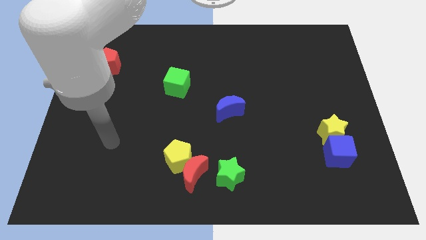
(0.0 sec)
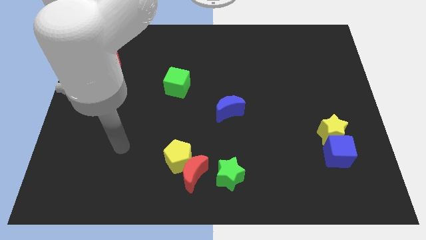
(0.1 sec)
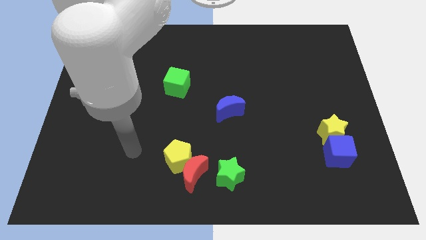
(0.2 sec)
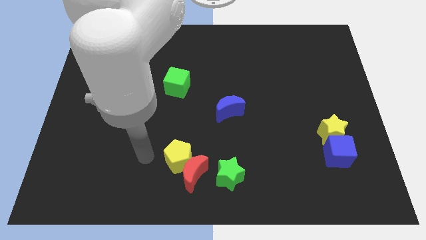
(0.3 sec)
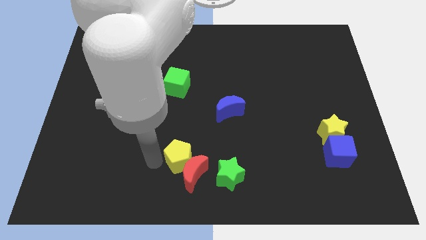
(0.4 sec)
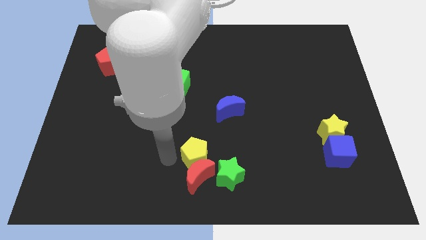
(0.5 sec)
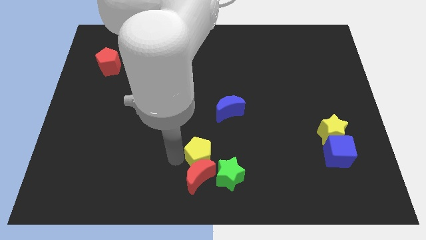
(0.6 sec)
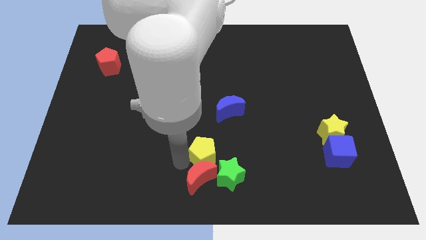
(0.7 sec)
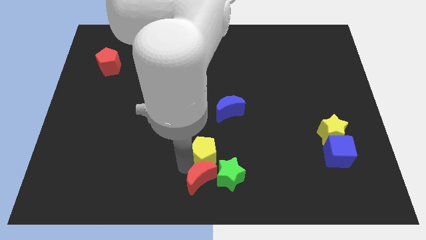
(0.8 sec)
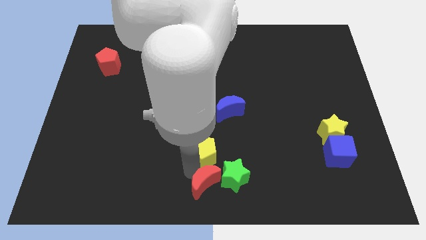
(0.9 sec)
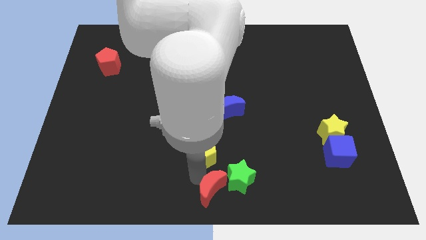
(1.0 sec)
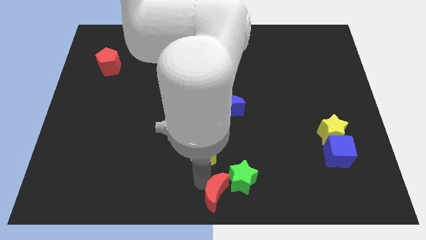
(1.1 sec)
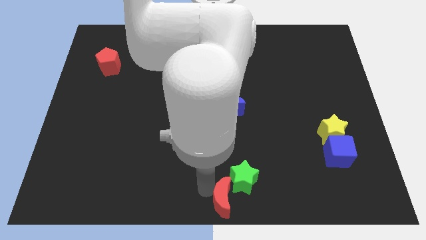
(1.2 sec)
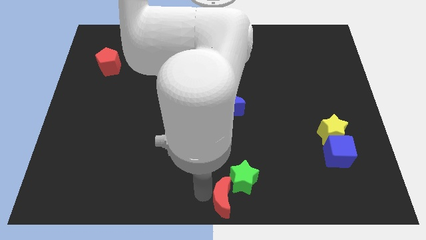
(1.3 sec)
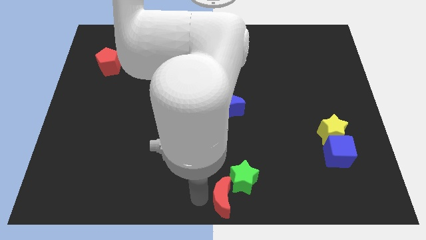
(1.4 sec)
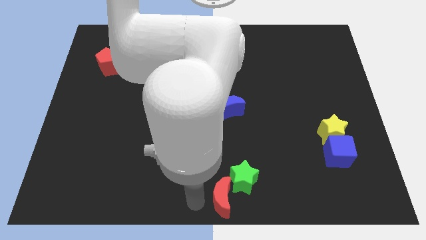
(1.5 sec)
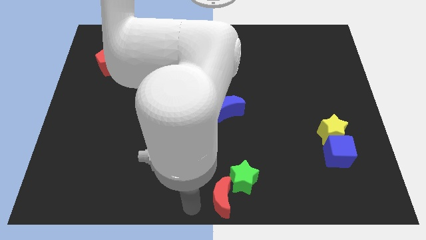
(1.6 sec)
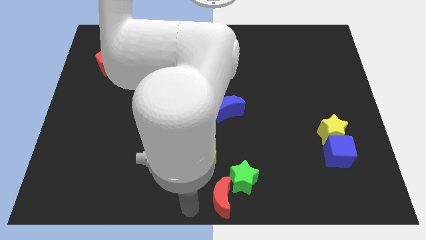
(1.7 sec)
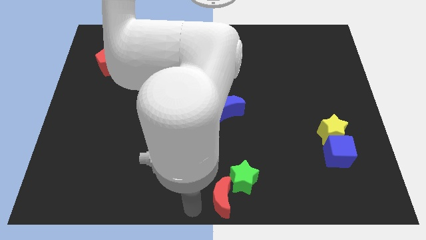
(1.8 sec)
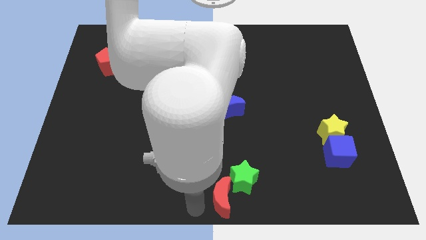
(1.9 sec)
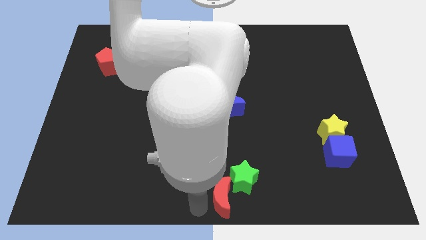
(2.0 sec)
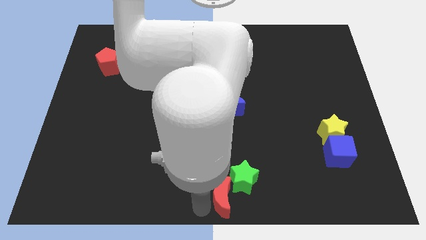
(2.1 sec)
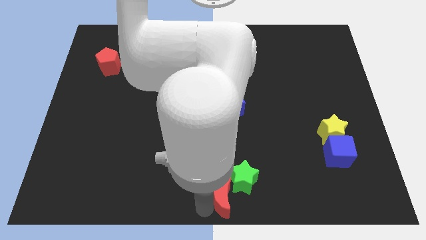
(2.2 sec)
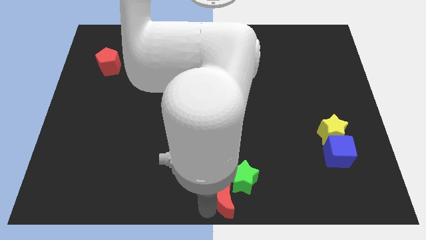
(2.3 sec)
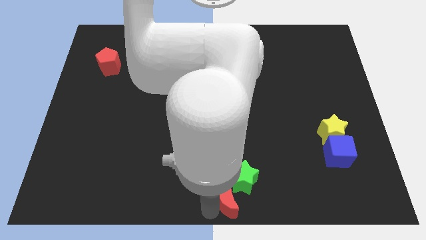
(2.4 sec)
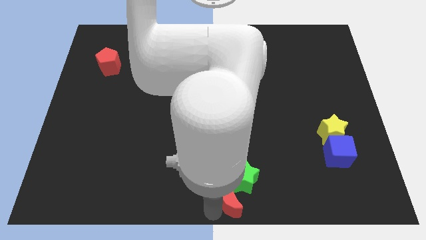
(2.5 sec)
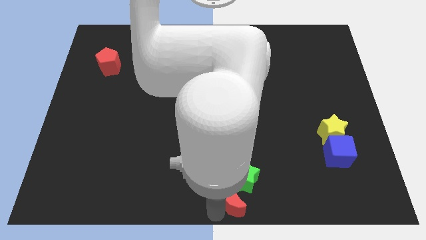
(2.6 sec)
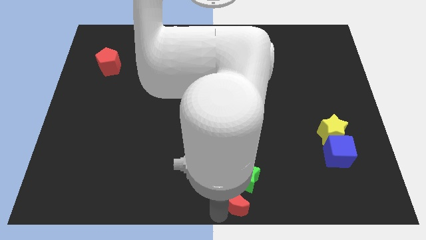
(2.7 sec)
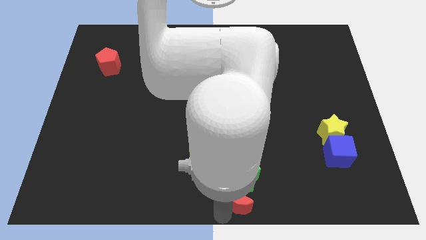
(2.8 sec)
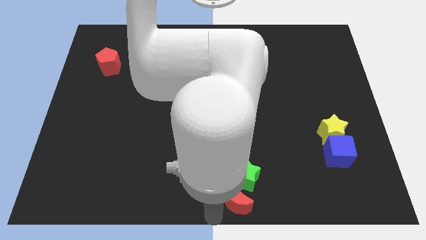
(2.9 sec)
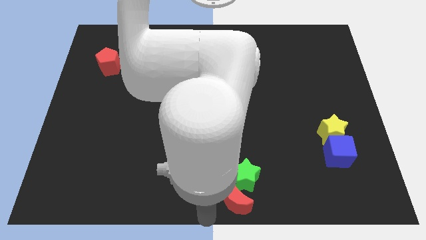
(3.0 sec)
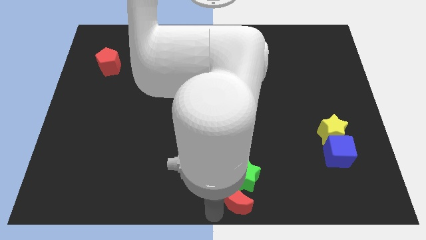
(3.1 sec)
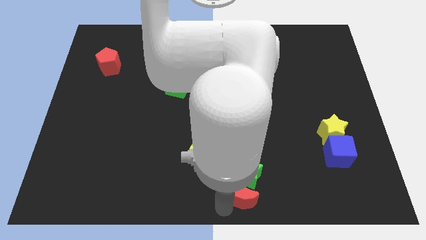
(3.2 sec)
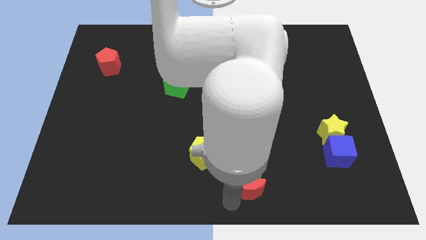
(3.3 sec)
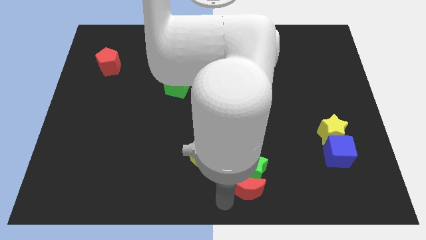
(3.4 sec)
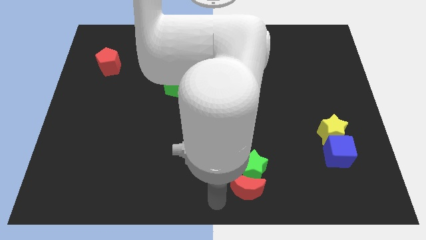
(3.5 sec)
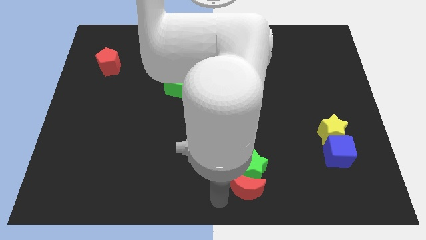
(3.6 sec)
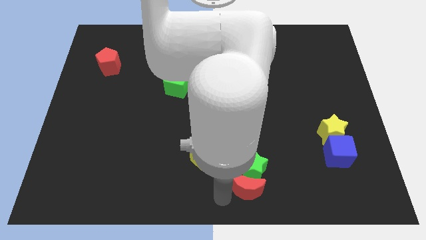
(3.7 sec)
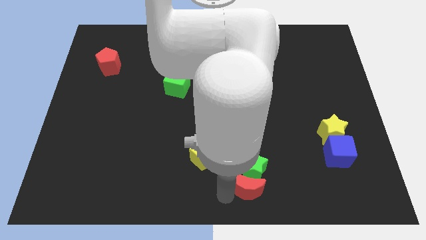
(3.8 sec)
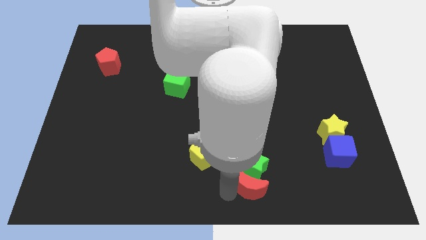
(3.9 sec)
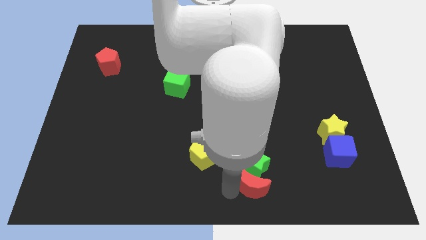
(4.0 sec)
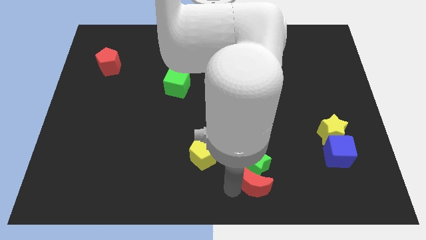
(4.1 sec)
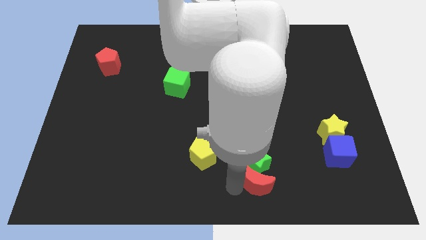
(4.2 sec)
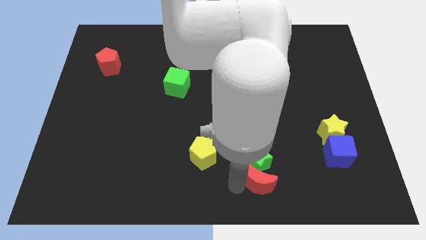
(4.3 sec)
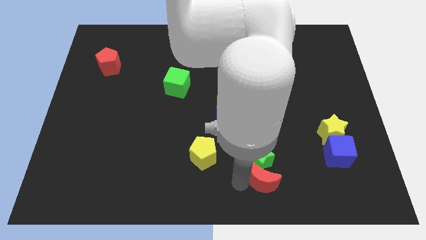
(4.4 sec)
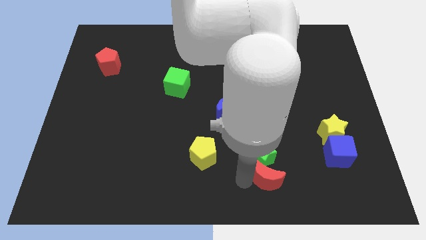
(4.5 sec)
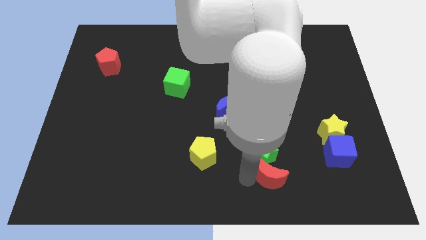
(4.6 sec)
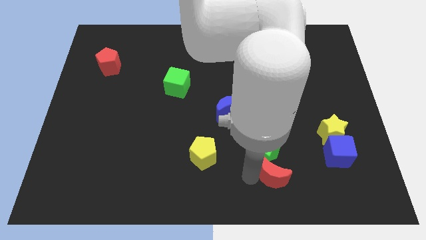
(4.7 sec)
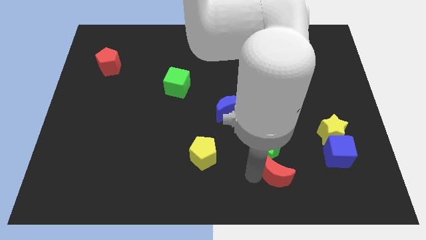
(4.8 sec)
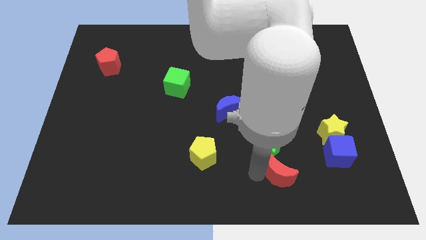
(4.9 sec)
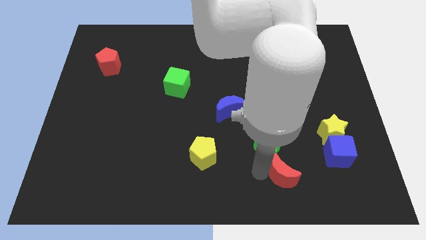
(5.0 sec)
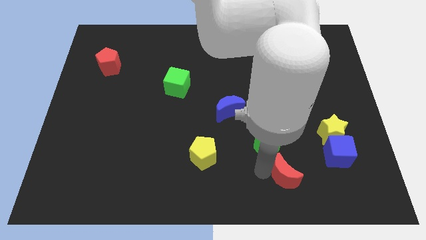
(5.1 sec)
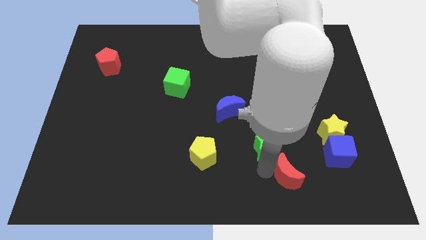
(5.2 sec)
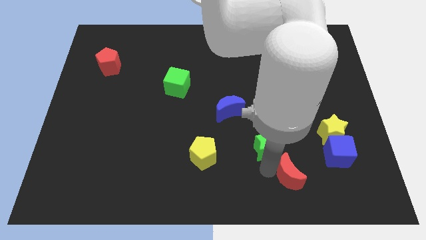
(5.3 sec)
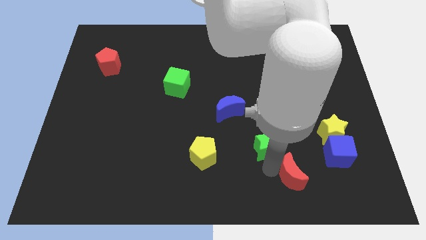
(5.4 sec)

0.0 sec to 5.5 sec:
move the red moon right

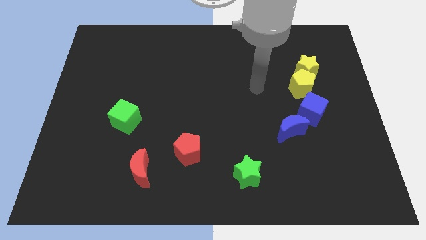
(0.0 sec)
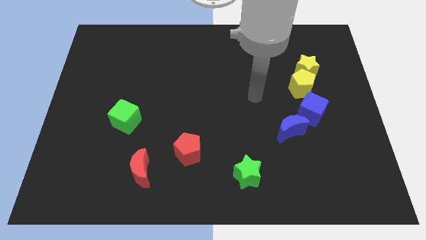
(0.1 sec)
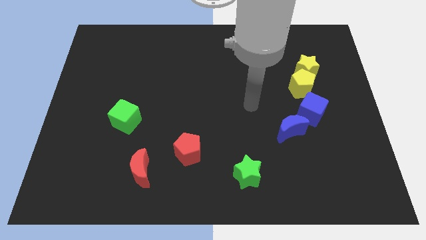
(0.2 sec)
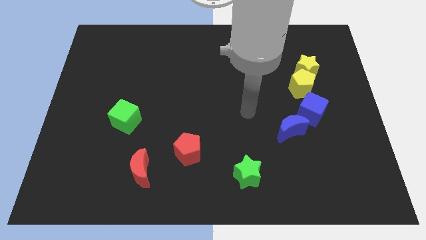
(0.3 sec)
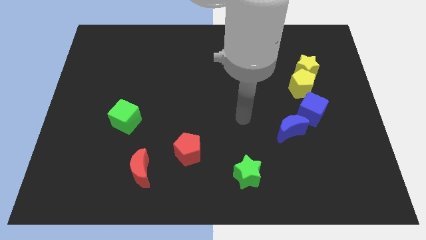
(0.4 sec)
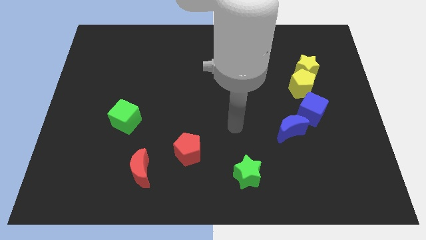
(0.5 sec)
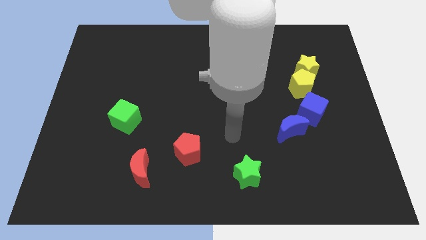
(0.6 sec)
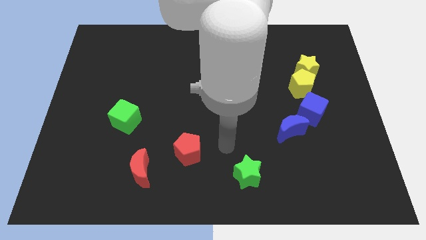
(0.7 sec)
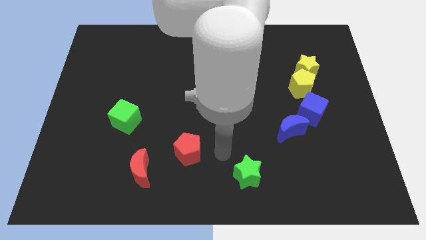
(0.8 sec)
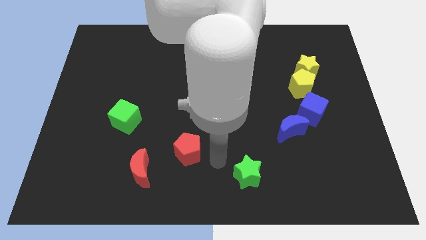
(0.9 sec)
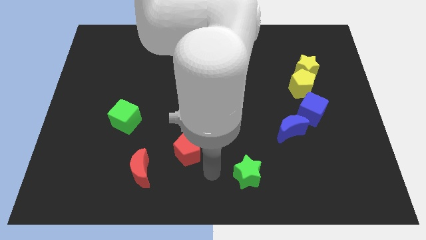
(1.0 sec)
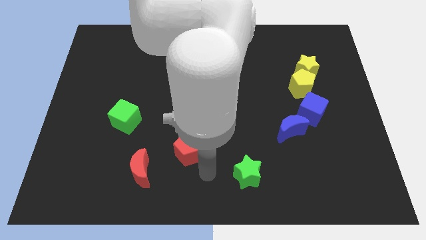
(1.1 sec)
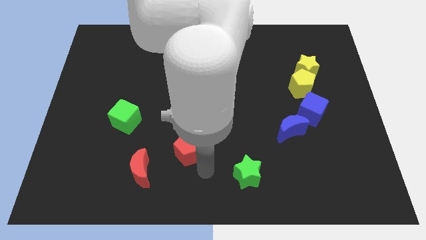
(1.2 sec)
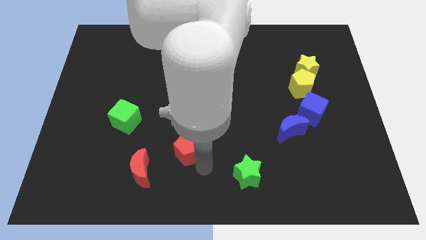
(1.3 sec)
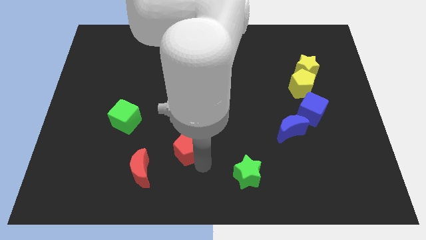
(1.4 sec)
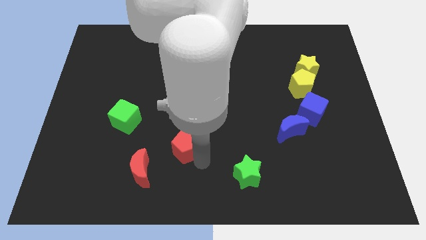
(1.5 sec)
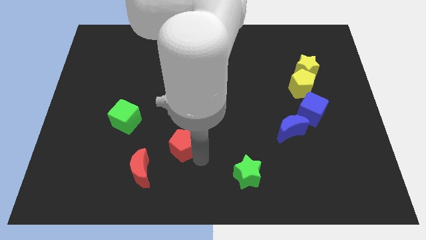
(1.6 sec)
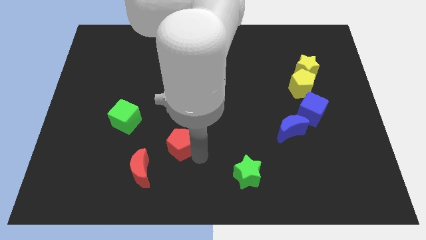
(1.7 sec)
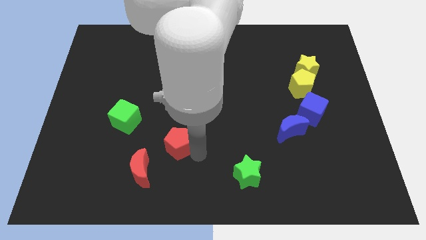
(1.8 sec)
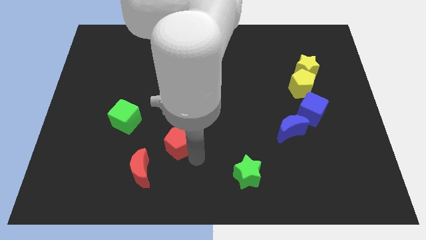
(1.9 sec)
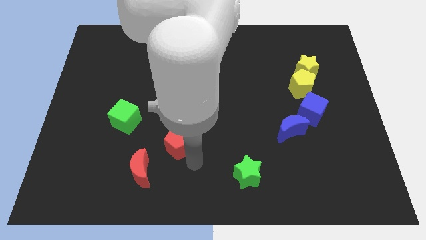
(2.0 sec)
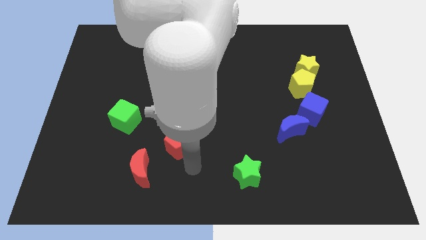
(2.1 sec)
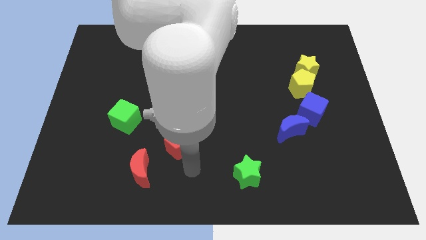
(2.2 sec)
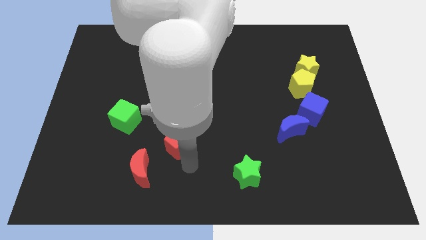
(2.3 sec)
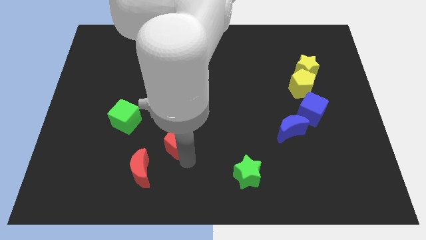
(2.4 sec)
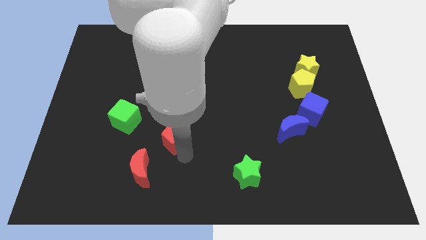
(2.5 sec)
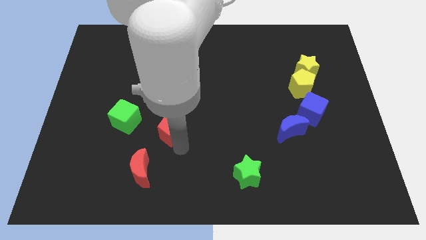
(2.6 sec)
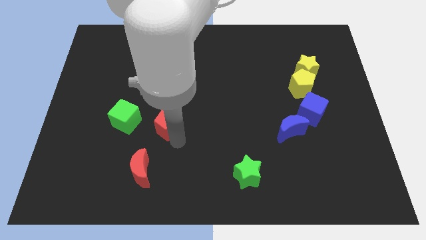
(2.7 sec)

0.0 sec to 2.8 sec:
push the red pentagon somewhat diagonally upwards and left
